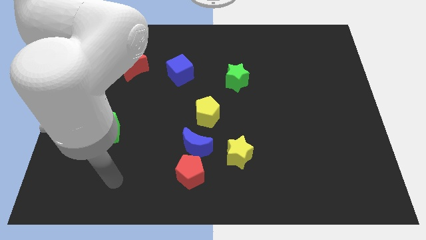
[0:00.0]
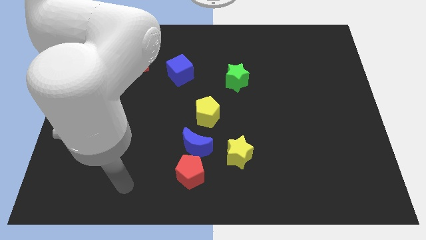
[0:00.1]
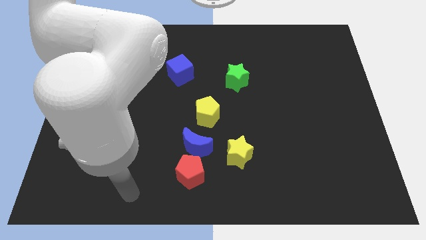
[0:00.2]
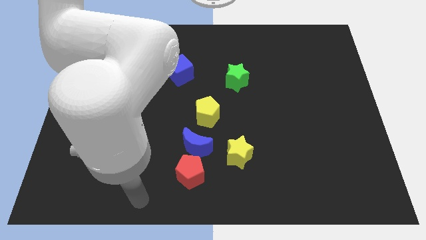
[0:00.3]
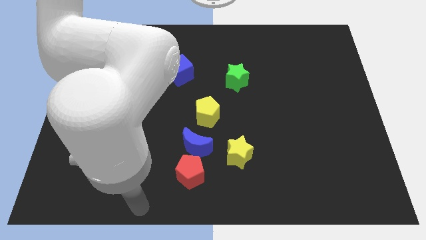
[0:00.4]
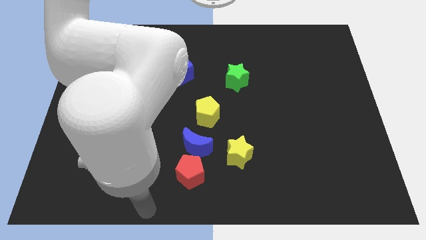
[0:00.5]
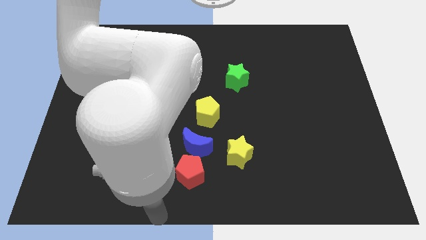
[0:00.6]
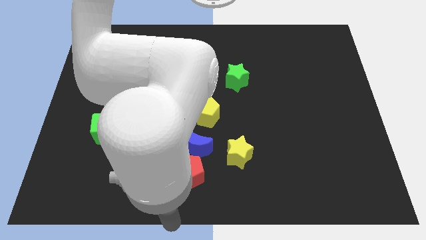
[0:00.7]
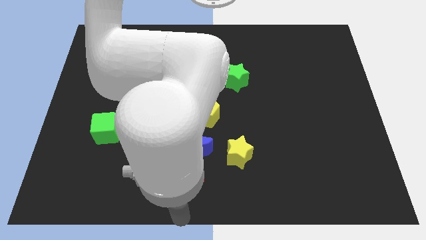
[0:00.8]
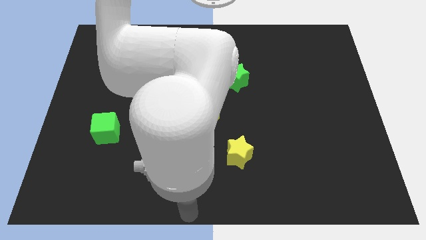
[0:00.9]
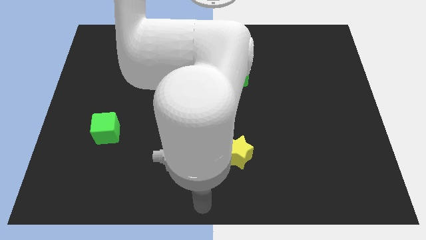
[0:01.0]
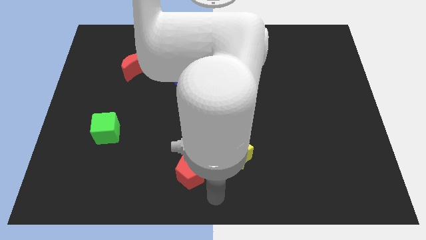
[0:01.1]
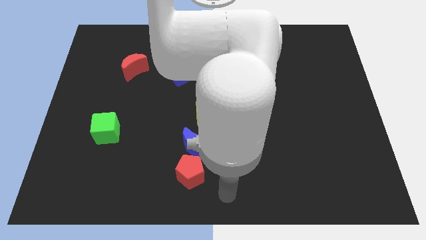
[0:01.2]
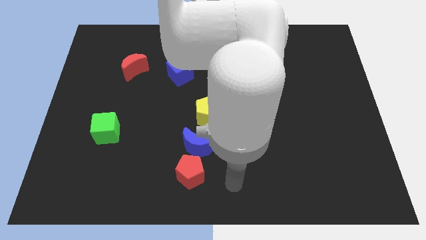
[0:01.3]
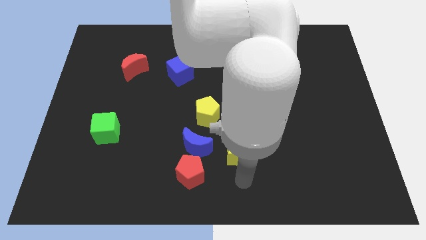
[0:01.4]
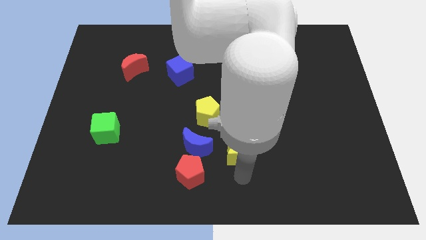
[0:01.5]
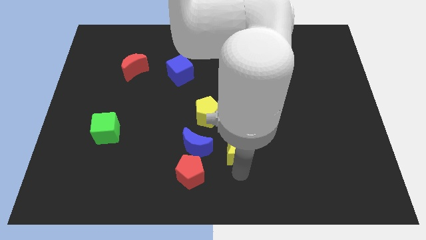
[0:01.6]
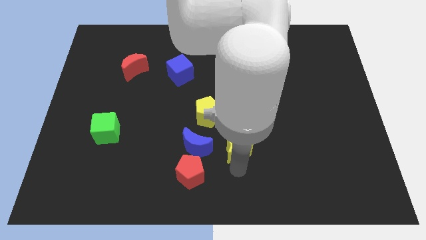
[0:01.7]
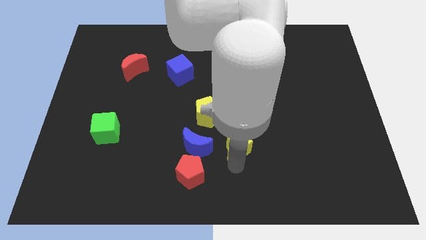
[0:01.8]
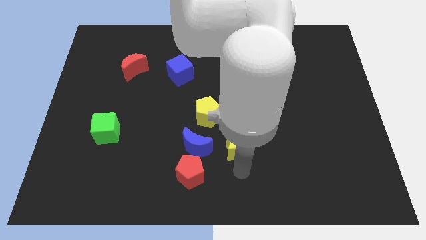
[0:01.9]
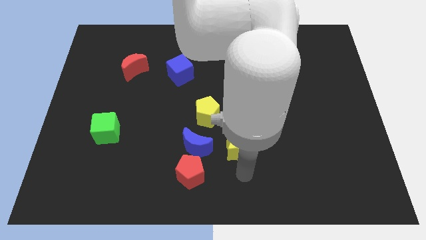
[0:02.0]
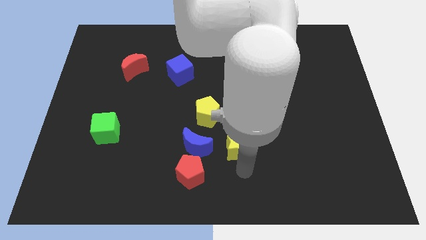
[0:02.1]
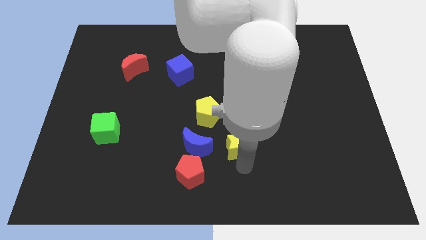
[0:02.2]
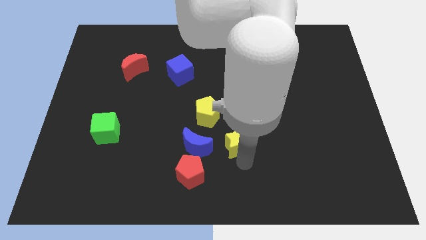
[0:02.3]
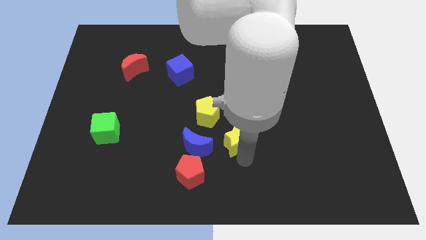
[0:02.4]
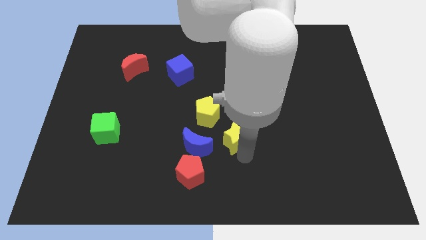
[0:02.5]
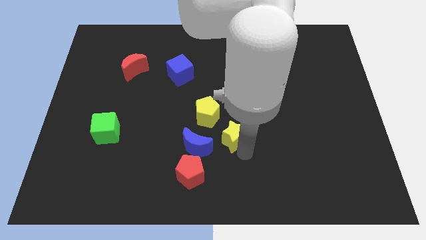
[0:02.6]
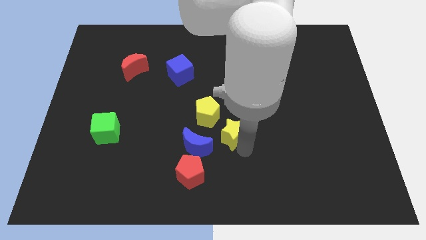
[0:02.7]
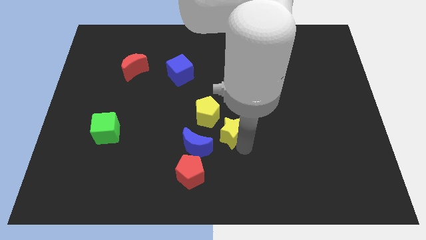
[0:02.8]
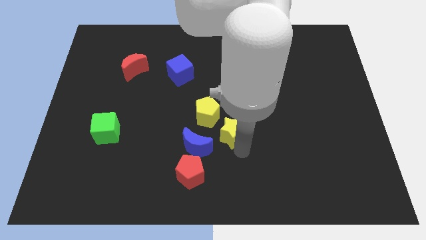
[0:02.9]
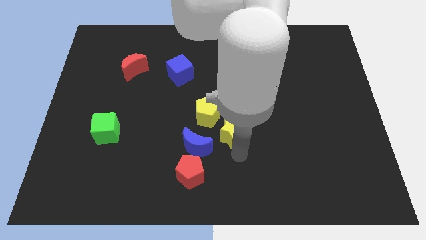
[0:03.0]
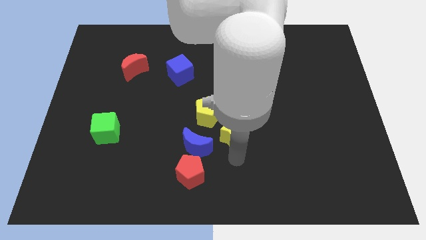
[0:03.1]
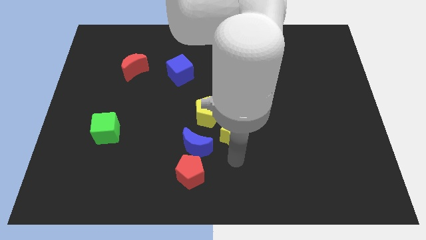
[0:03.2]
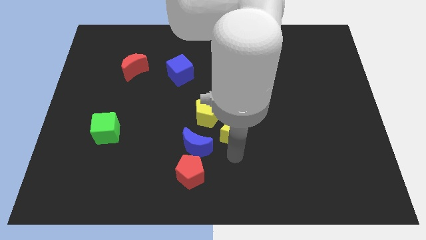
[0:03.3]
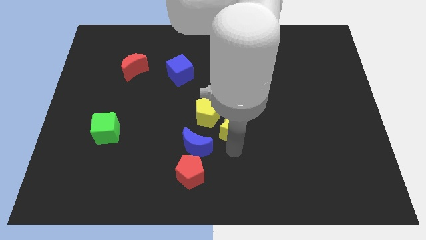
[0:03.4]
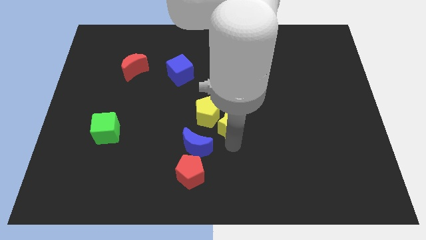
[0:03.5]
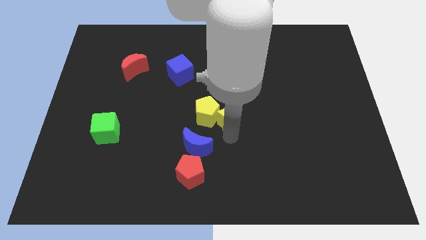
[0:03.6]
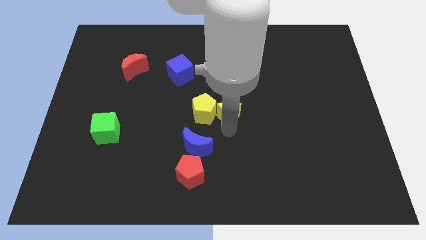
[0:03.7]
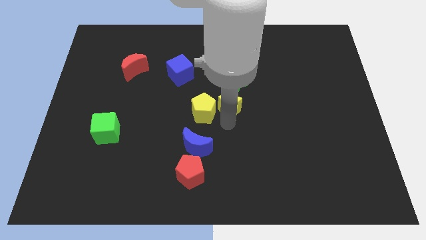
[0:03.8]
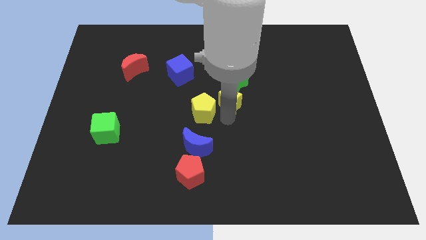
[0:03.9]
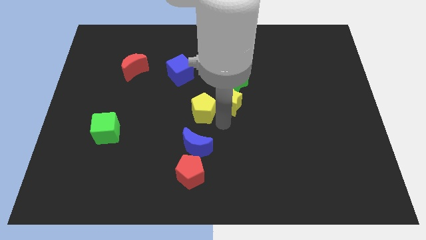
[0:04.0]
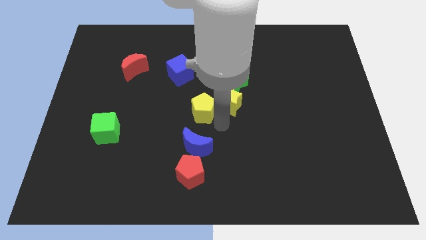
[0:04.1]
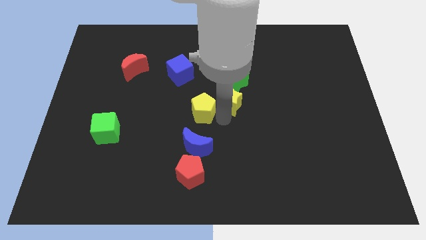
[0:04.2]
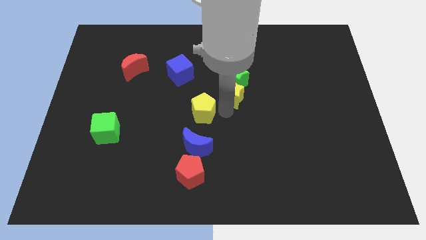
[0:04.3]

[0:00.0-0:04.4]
push the yellow star towards the green star

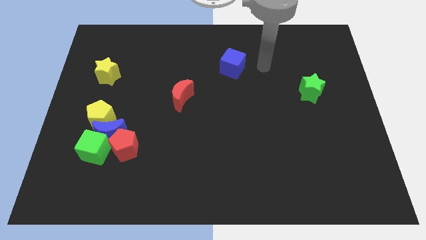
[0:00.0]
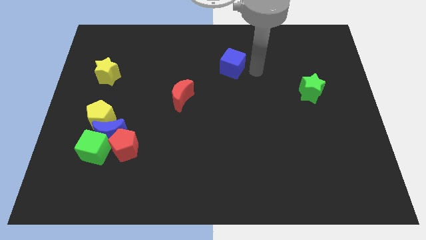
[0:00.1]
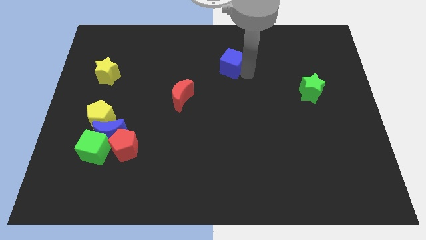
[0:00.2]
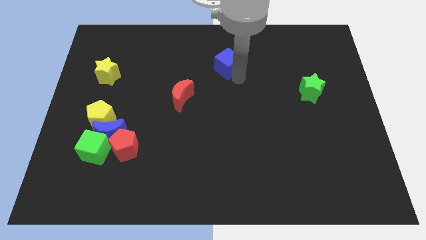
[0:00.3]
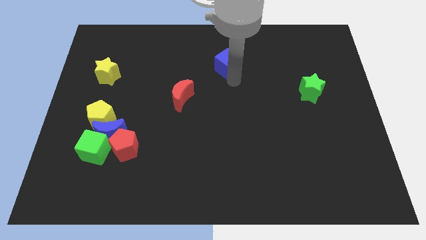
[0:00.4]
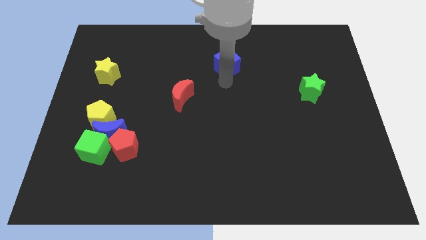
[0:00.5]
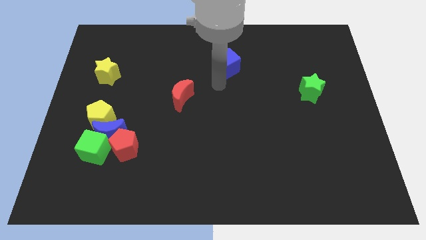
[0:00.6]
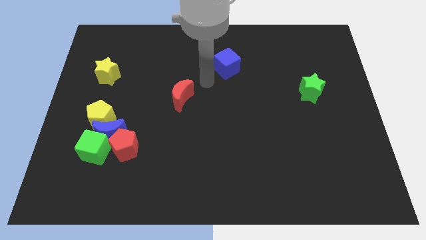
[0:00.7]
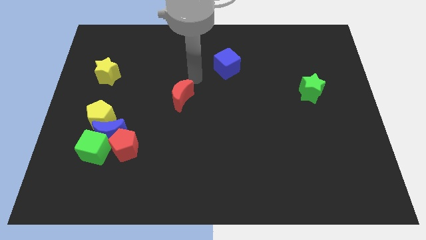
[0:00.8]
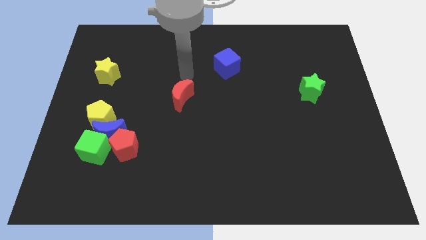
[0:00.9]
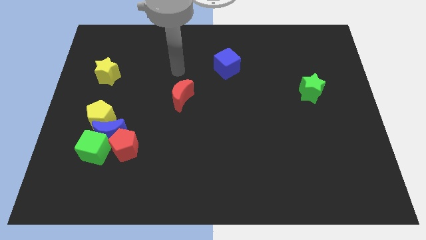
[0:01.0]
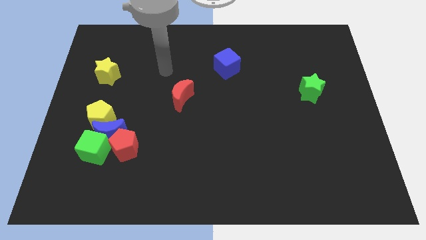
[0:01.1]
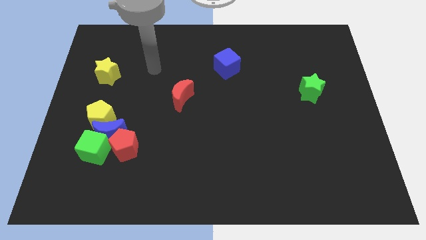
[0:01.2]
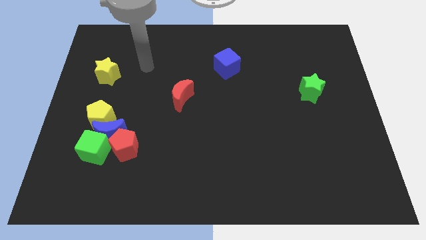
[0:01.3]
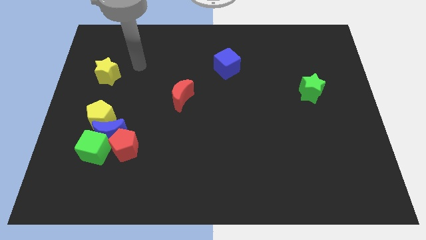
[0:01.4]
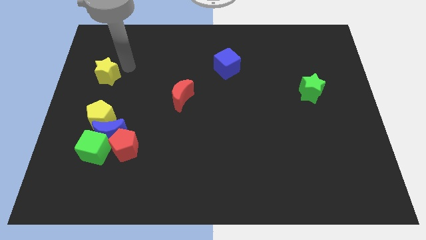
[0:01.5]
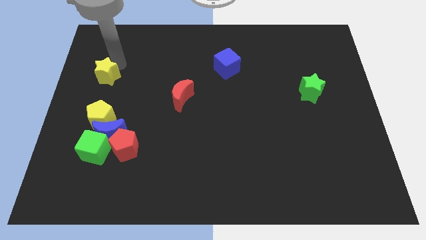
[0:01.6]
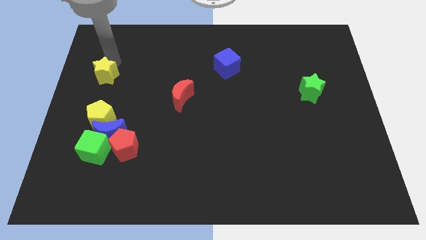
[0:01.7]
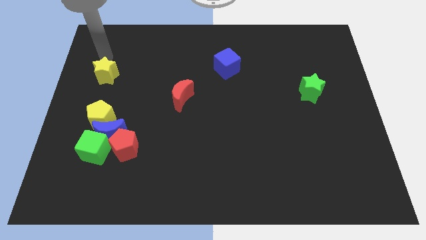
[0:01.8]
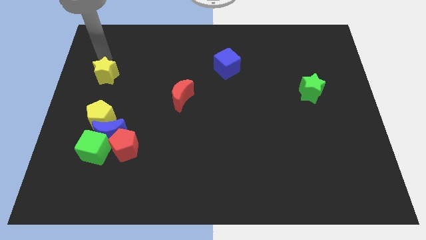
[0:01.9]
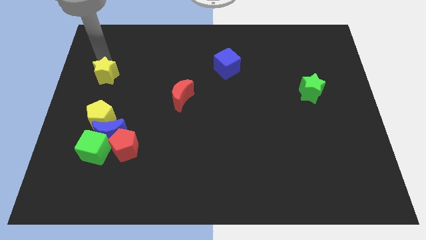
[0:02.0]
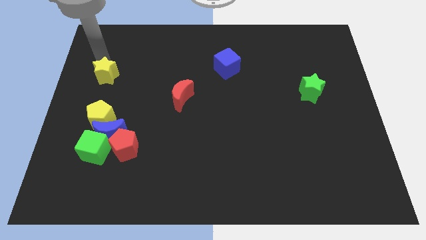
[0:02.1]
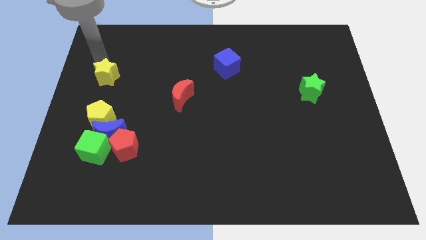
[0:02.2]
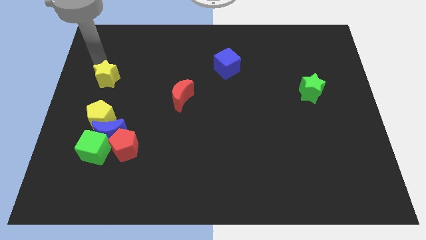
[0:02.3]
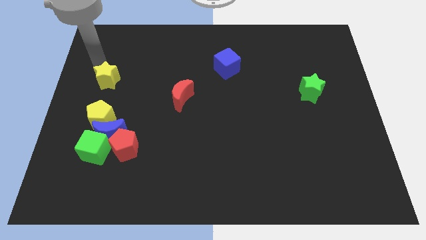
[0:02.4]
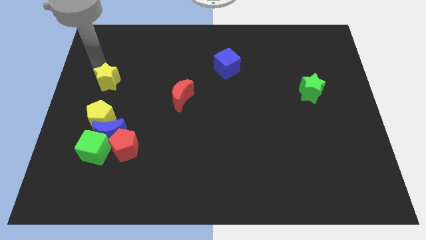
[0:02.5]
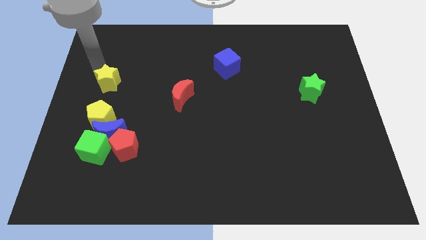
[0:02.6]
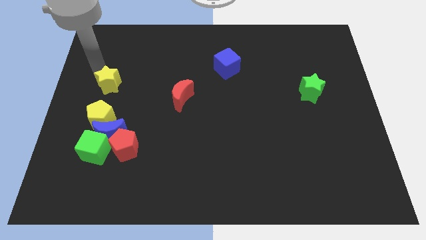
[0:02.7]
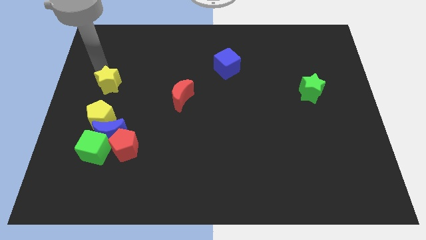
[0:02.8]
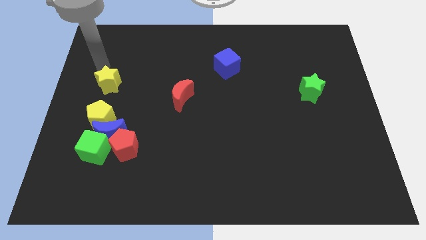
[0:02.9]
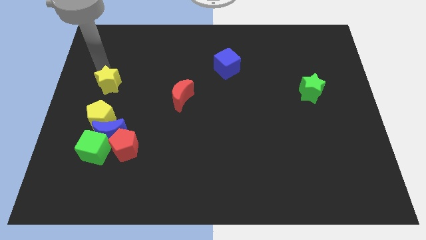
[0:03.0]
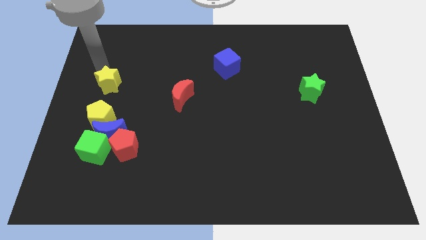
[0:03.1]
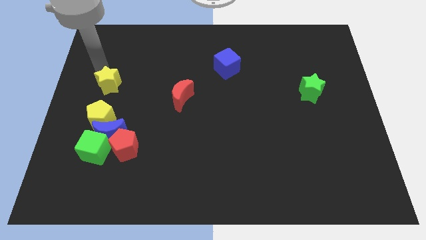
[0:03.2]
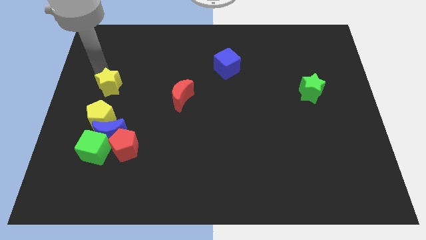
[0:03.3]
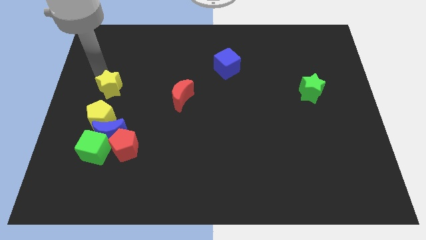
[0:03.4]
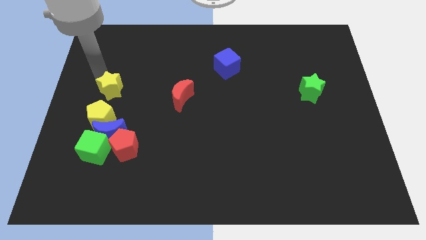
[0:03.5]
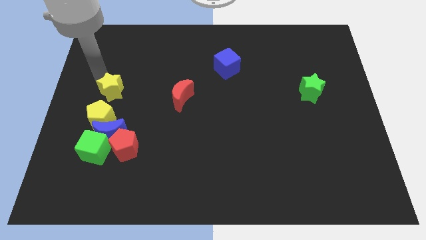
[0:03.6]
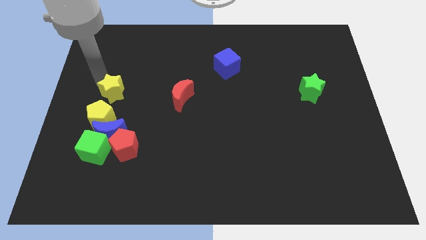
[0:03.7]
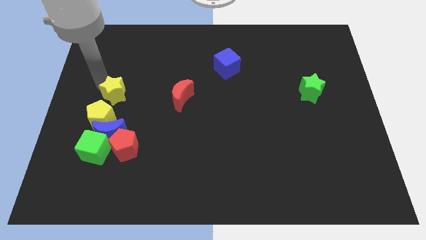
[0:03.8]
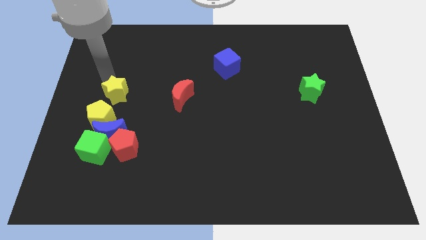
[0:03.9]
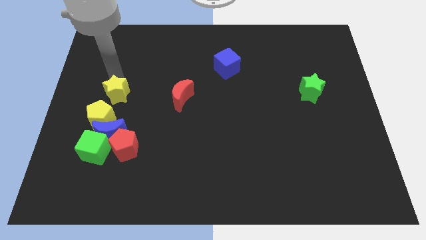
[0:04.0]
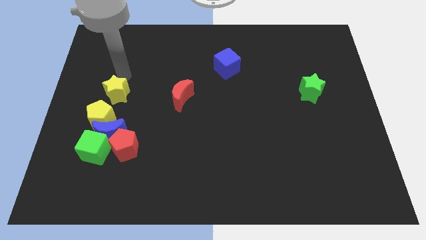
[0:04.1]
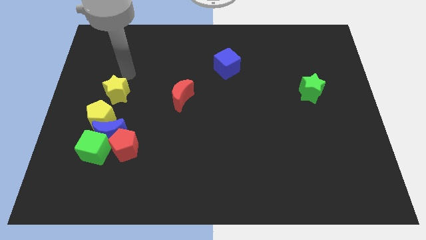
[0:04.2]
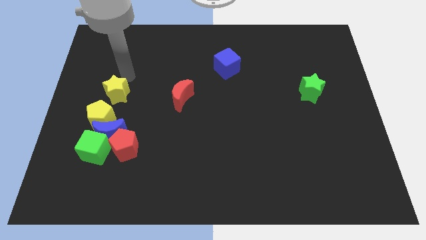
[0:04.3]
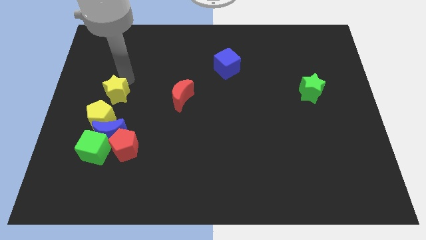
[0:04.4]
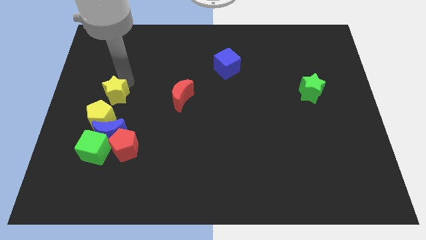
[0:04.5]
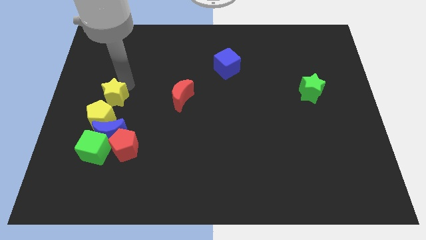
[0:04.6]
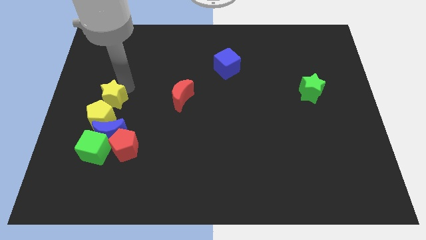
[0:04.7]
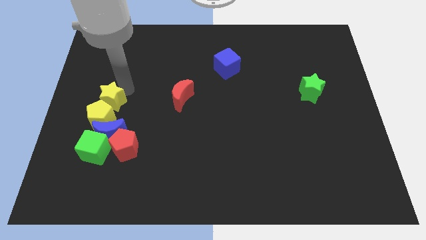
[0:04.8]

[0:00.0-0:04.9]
push the yellow star to the yellow pentagon
